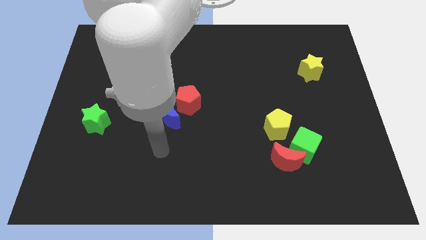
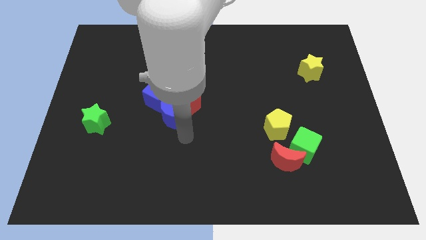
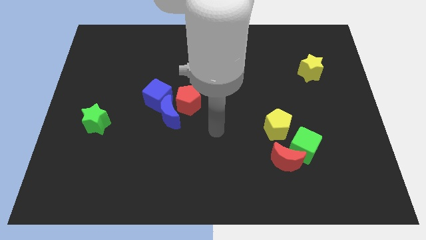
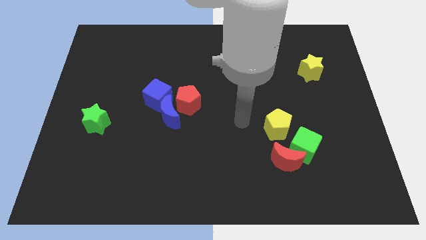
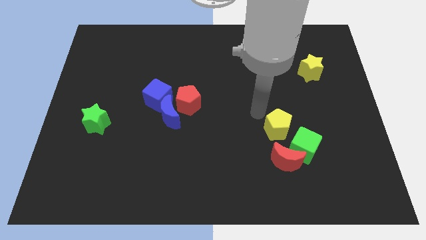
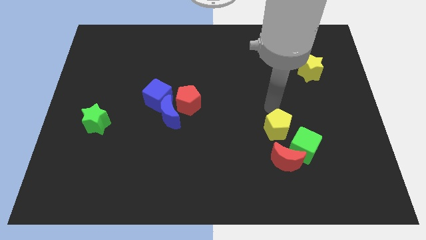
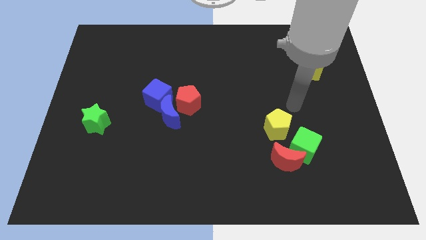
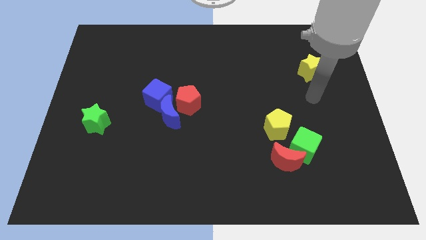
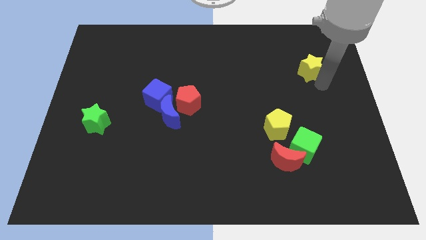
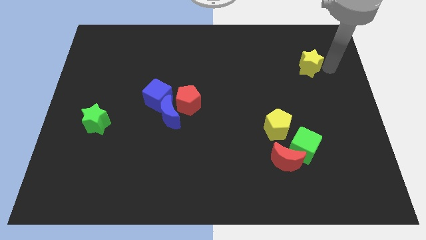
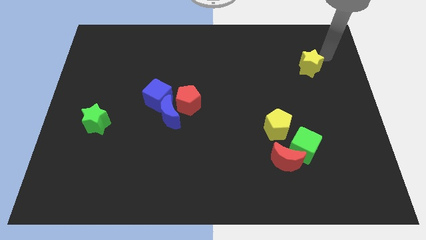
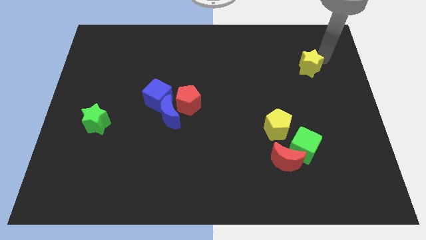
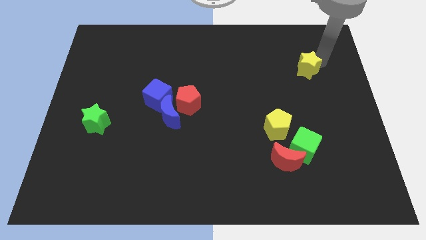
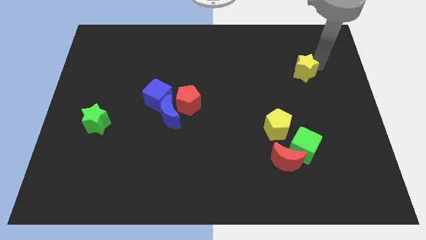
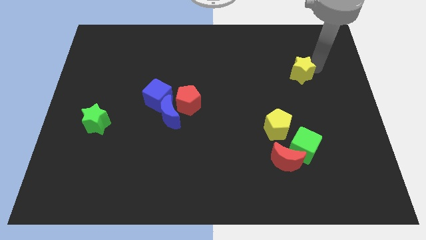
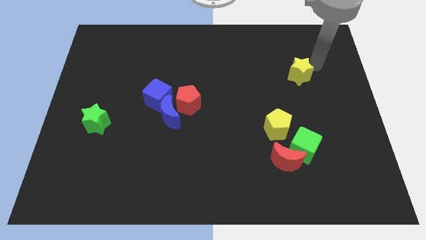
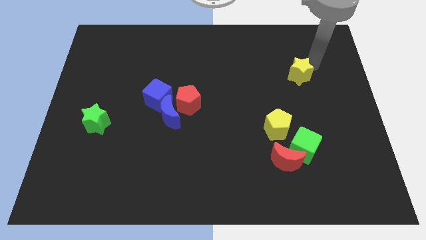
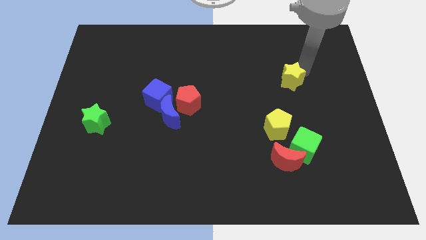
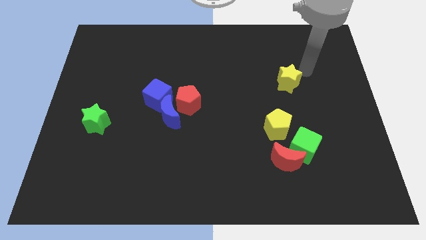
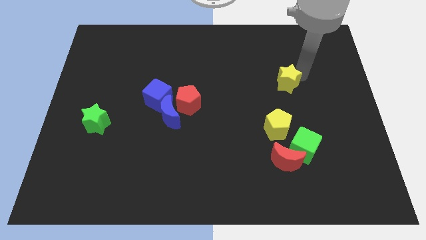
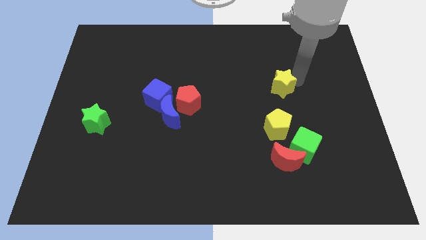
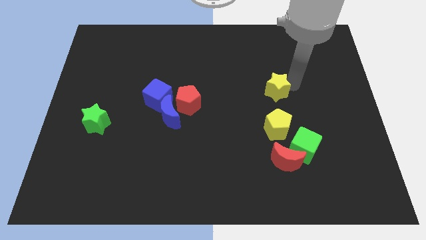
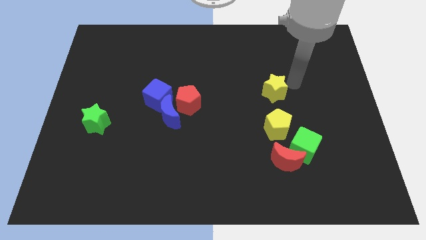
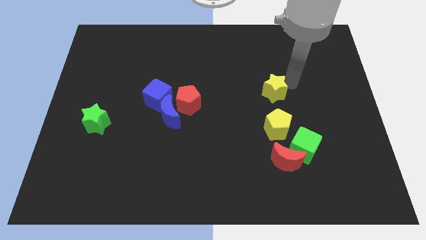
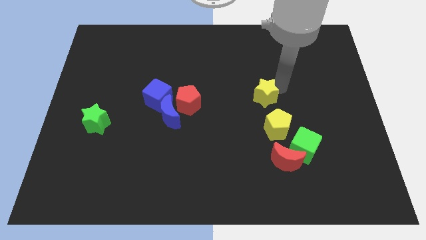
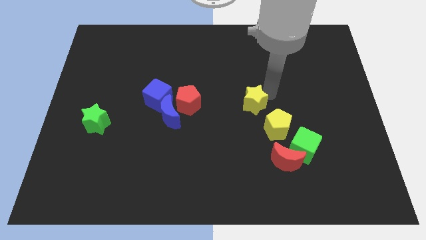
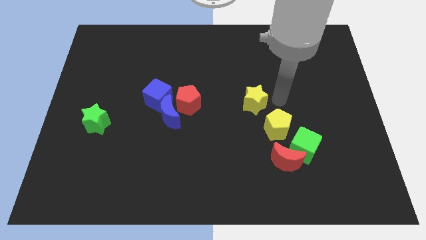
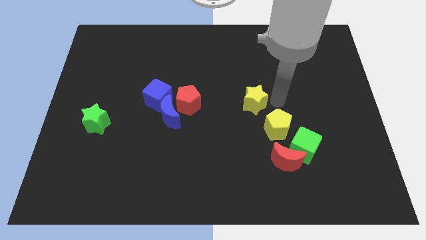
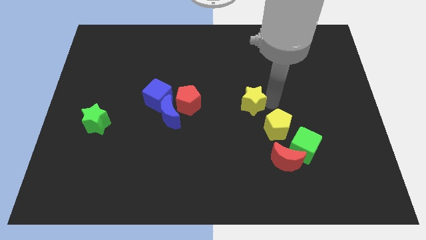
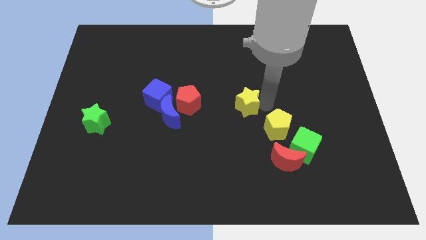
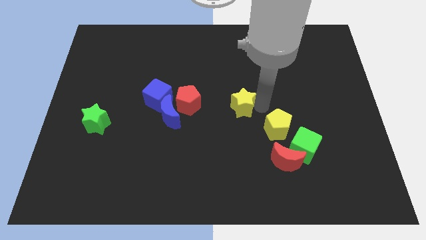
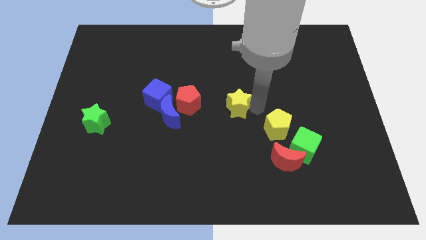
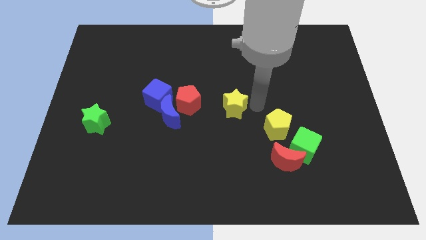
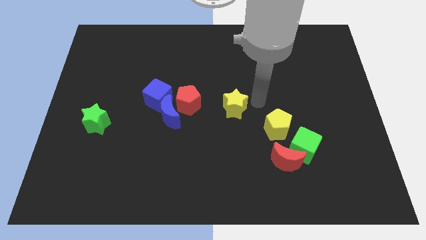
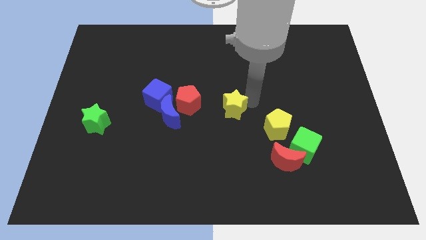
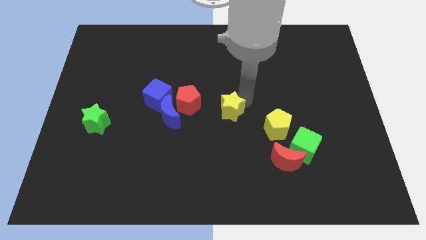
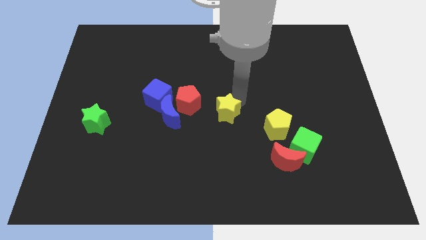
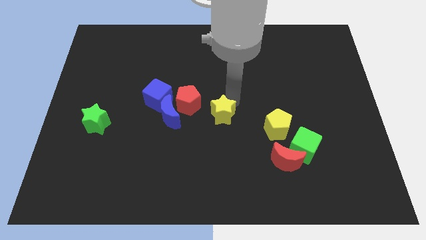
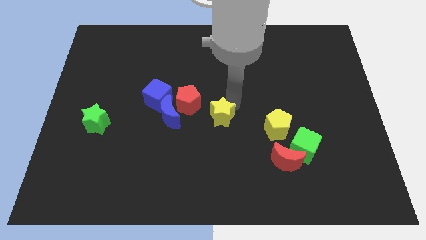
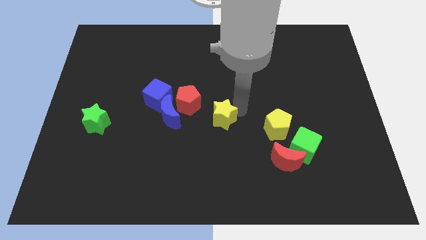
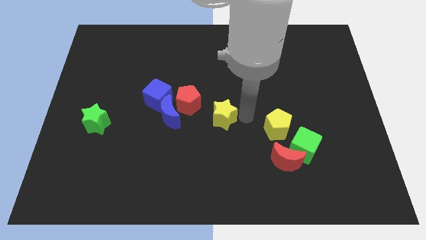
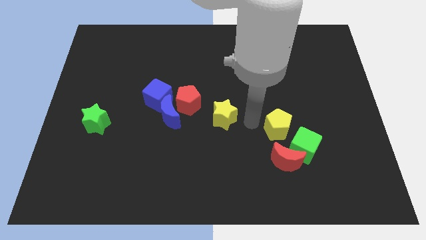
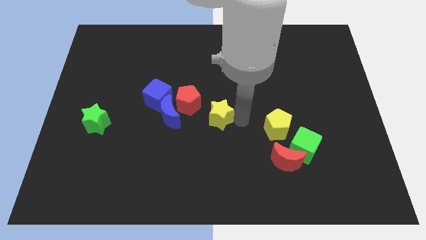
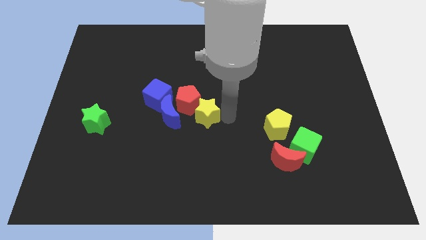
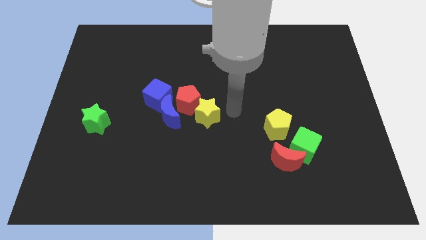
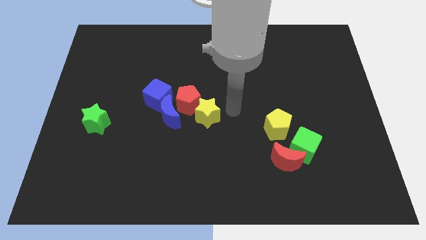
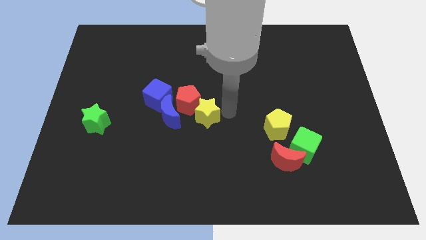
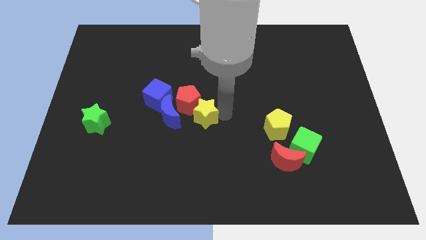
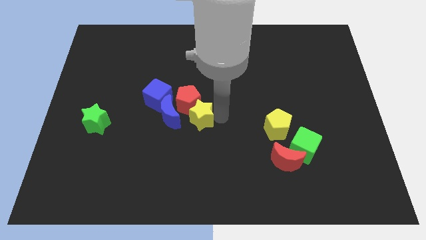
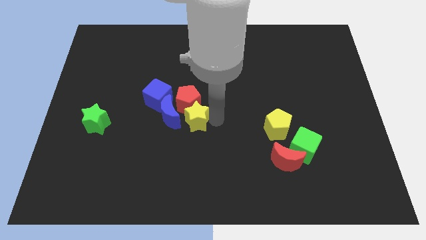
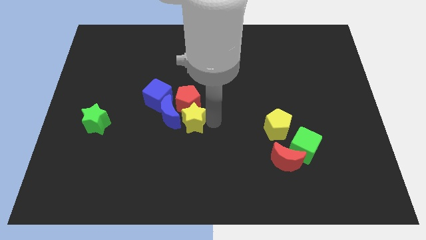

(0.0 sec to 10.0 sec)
push the yellow star next to the blue moon

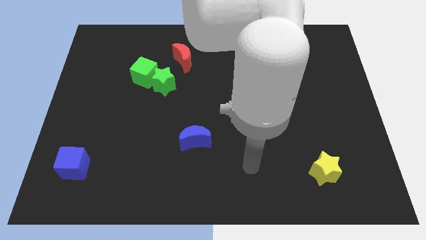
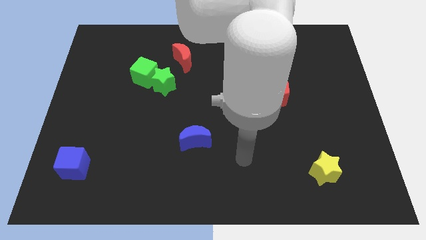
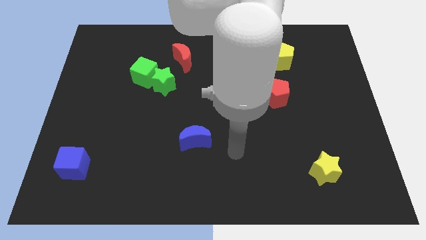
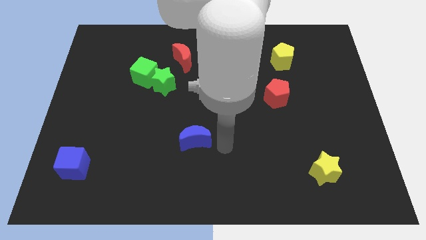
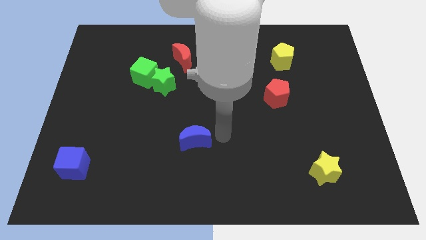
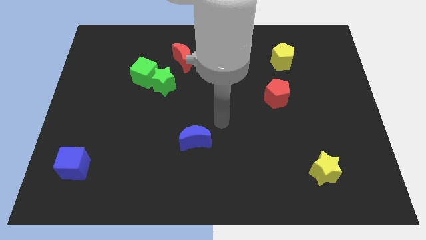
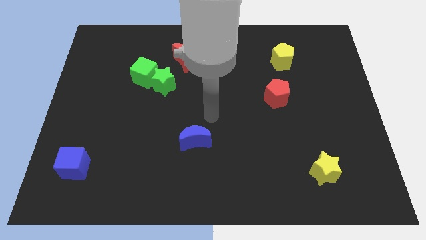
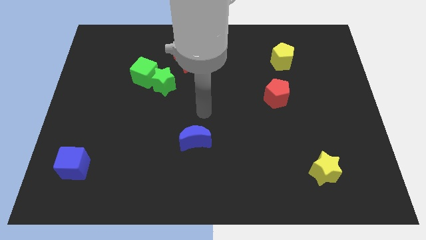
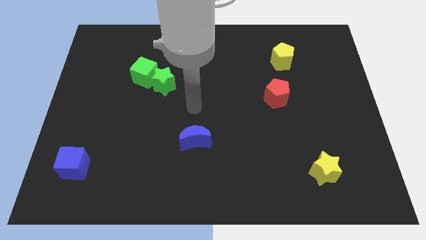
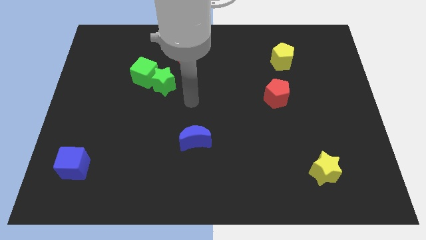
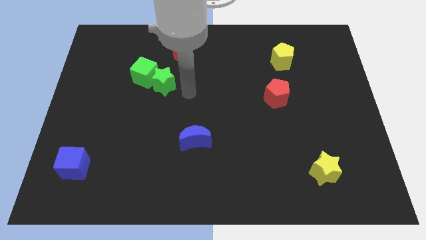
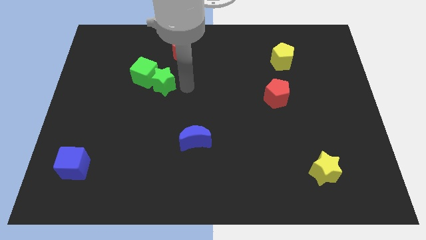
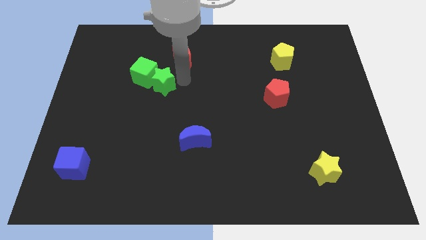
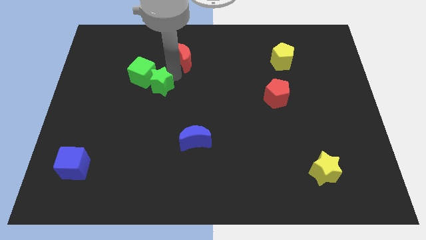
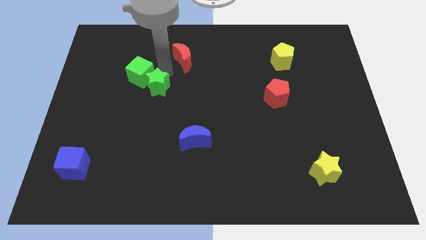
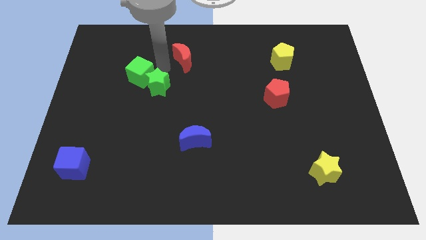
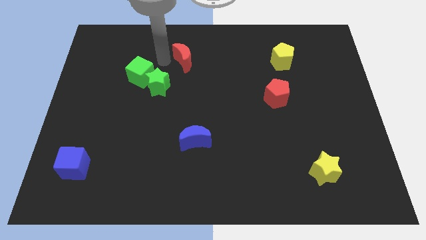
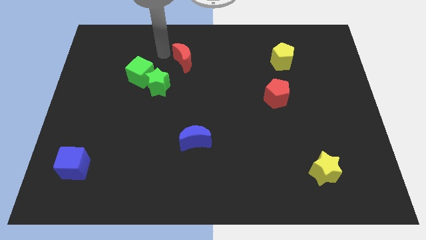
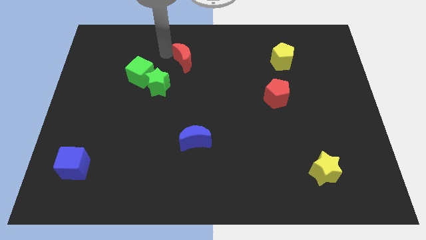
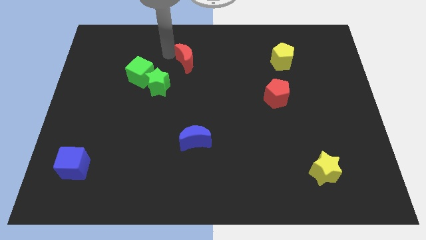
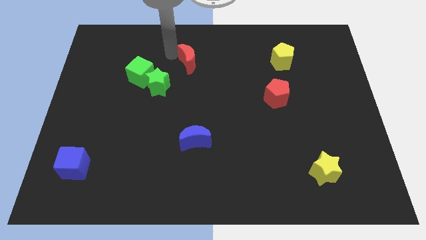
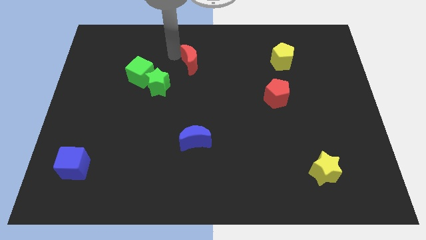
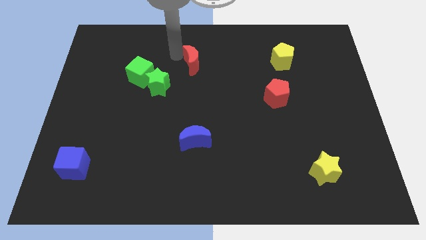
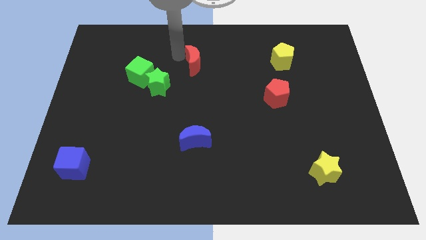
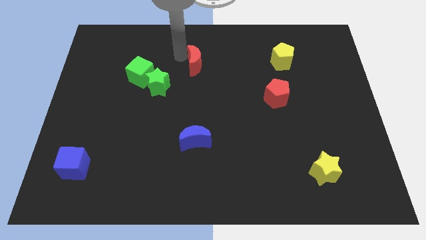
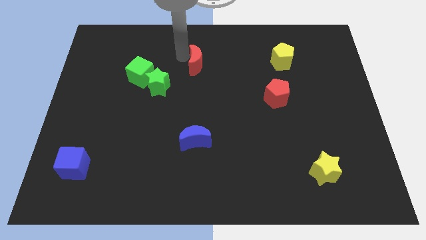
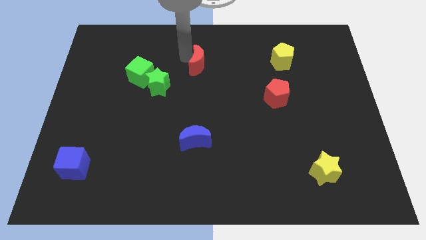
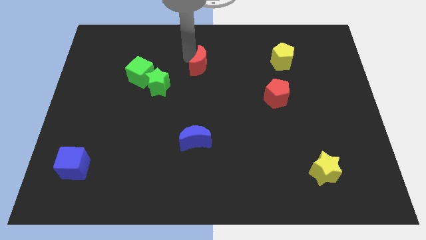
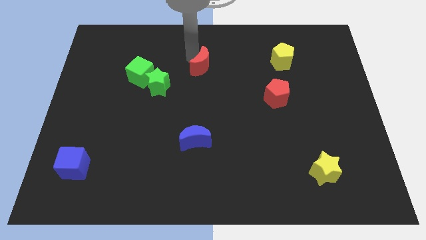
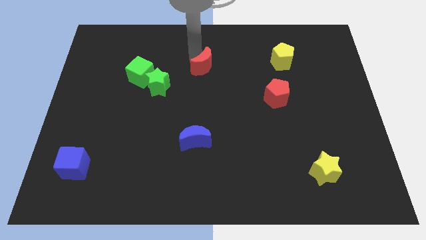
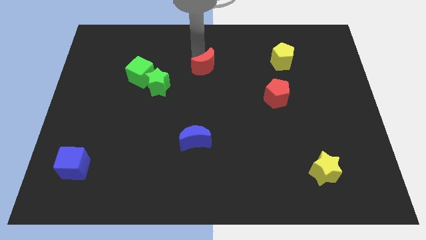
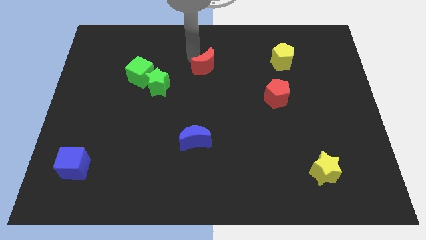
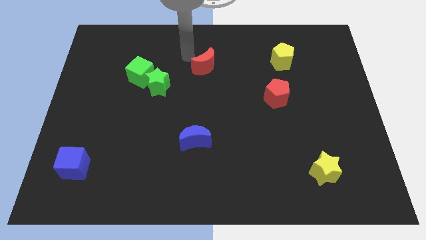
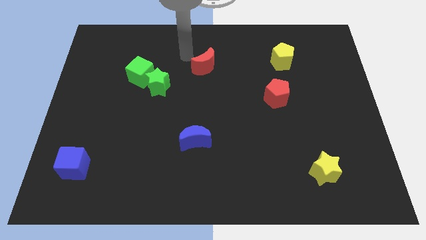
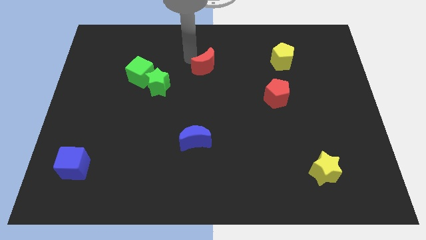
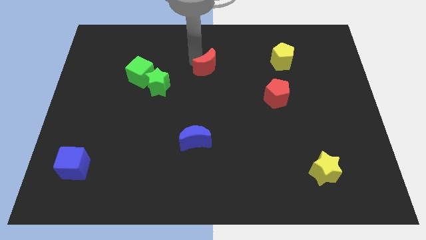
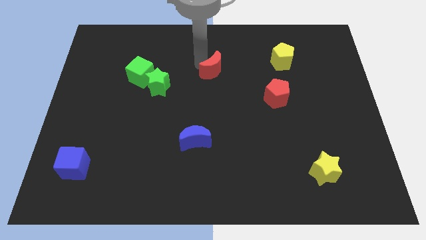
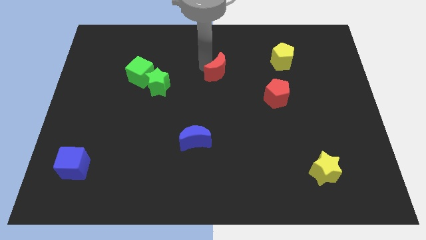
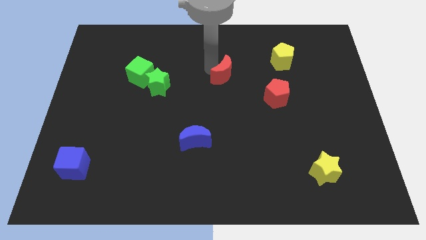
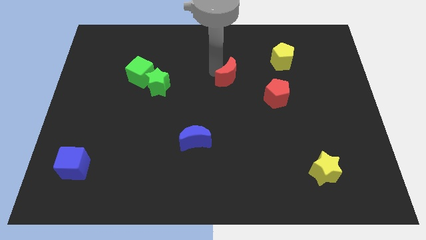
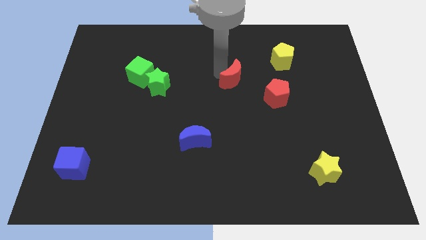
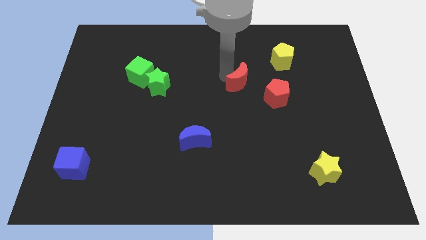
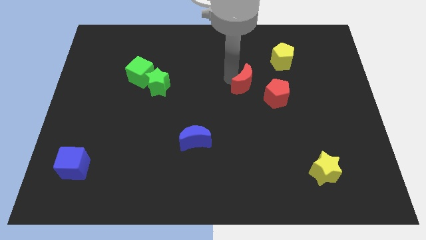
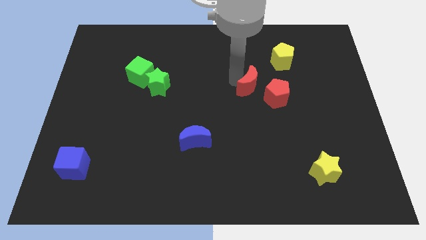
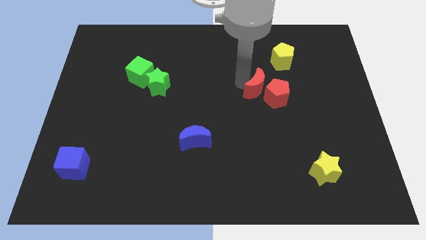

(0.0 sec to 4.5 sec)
move the red moon next to the red pentagon
